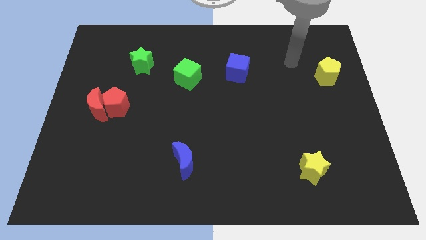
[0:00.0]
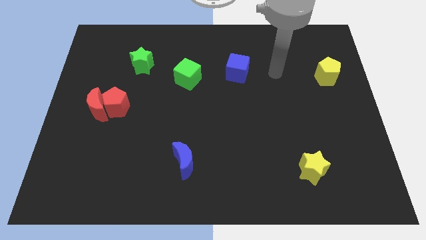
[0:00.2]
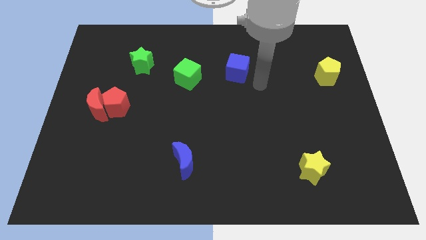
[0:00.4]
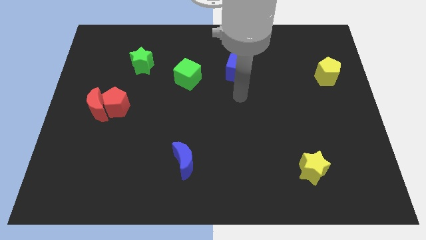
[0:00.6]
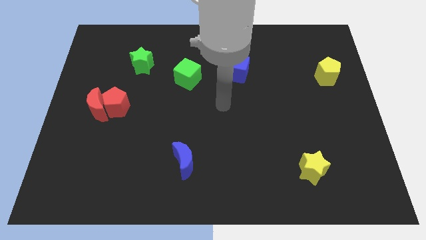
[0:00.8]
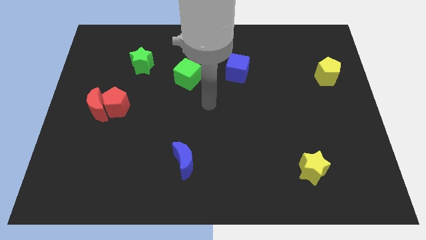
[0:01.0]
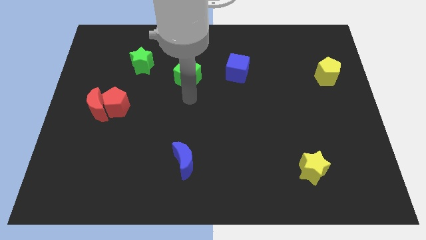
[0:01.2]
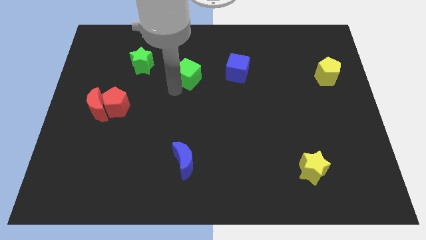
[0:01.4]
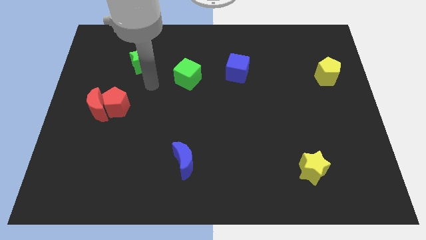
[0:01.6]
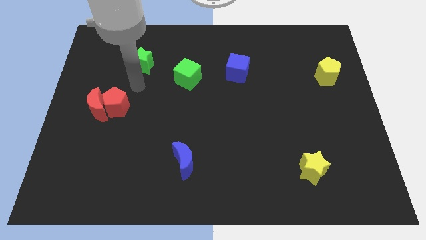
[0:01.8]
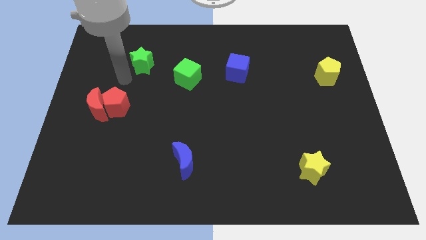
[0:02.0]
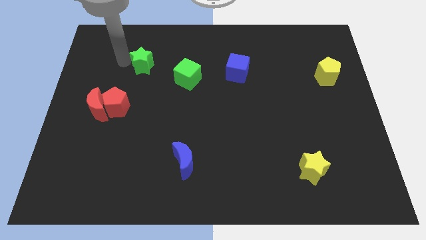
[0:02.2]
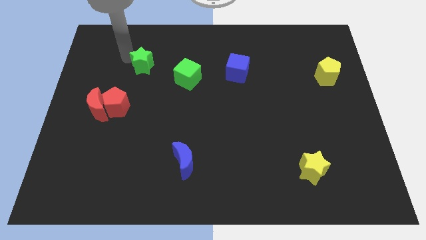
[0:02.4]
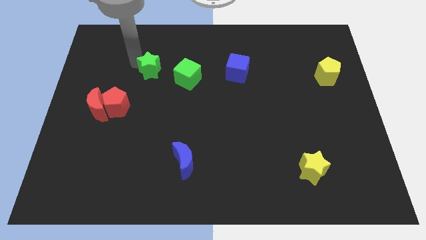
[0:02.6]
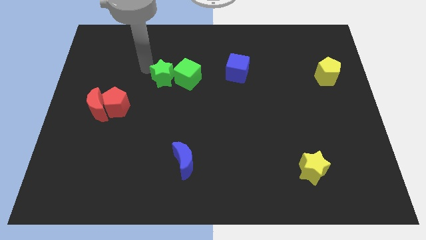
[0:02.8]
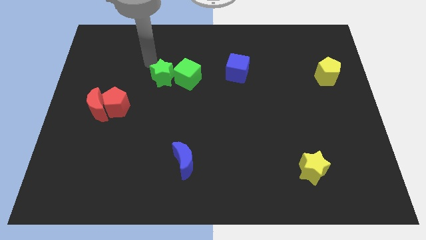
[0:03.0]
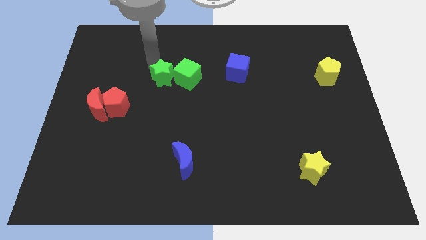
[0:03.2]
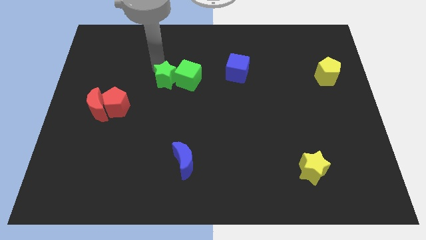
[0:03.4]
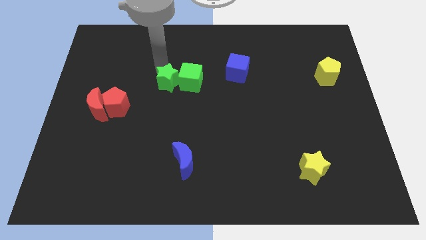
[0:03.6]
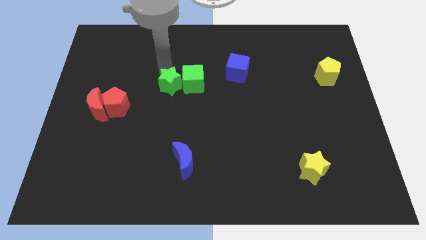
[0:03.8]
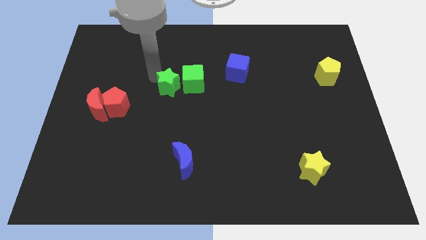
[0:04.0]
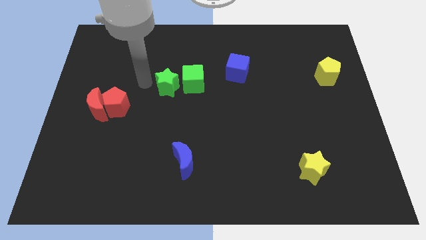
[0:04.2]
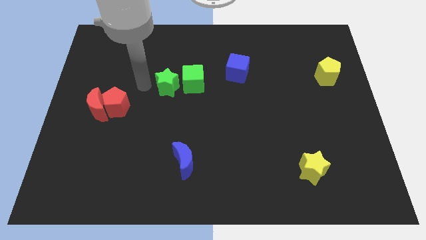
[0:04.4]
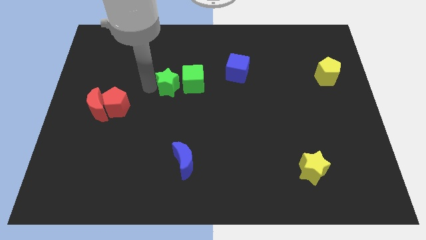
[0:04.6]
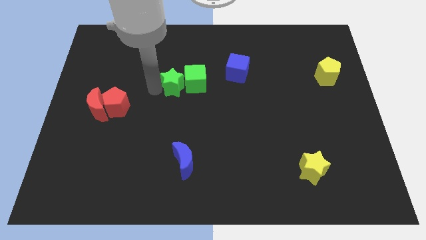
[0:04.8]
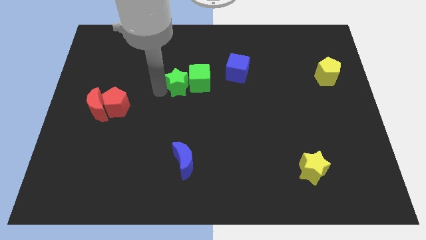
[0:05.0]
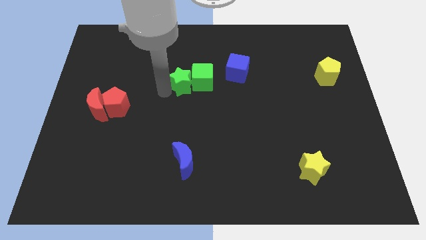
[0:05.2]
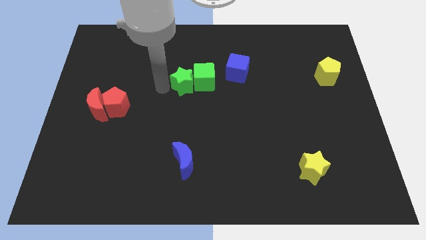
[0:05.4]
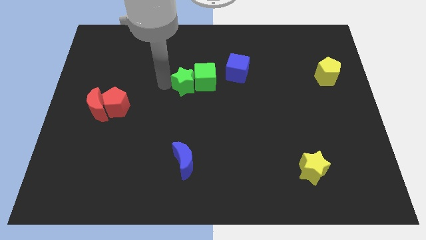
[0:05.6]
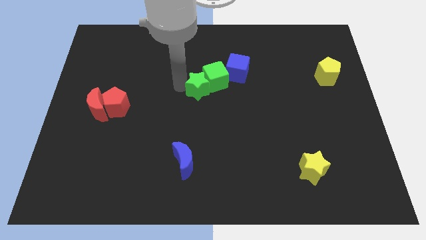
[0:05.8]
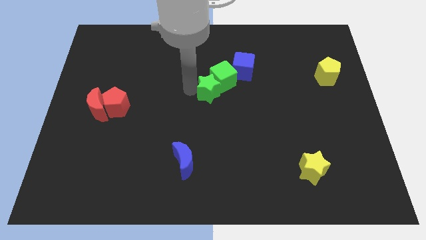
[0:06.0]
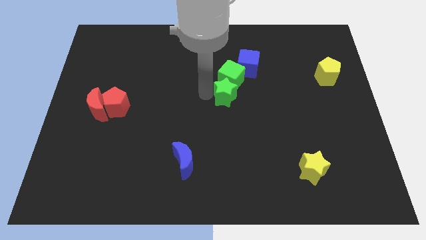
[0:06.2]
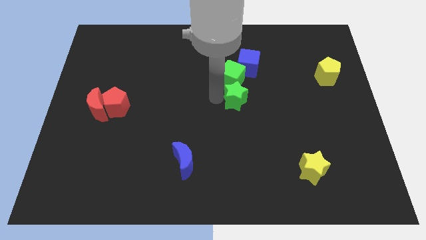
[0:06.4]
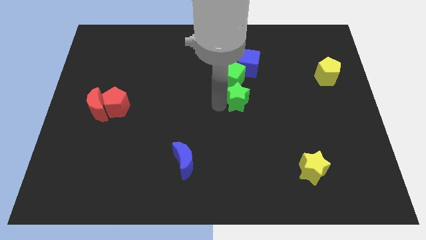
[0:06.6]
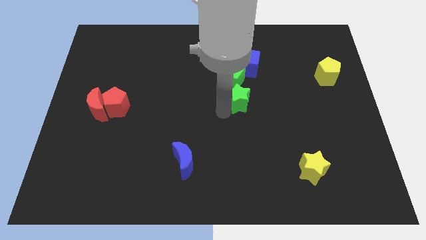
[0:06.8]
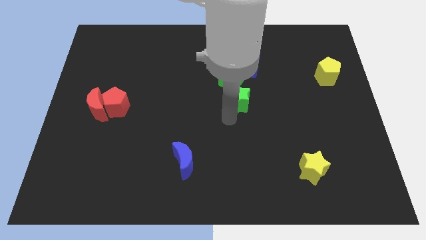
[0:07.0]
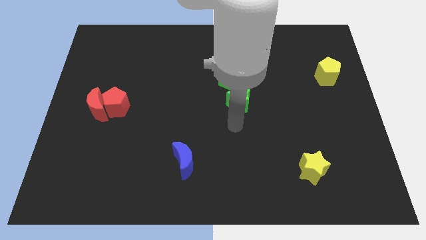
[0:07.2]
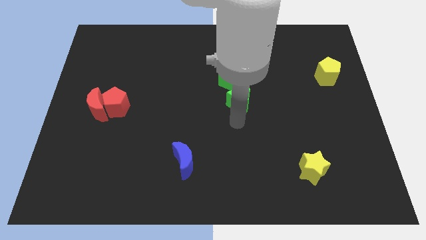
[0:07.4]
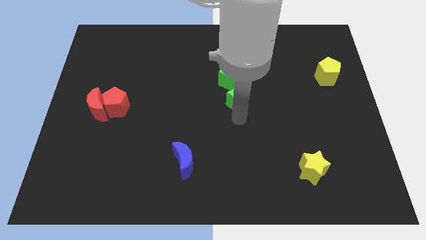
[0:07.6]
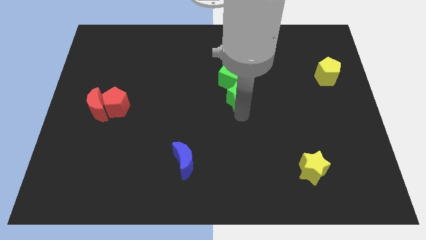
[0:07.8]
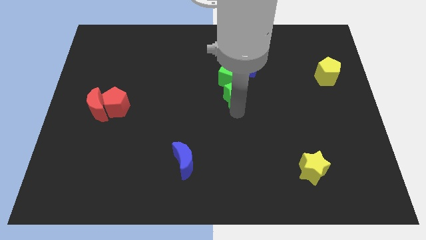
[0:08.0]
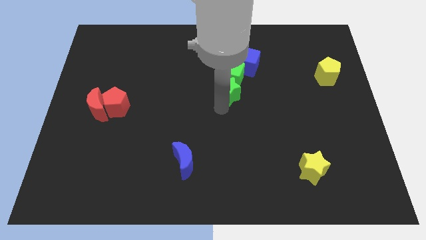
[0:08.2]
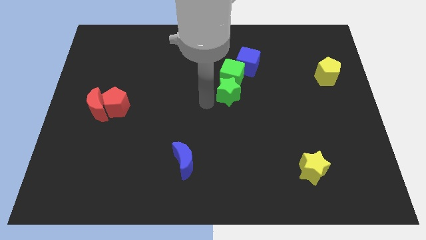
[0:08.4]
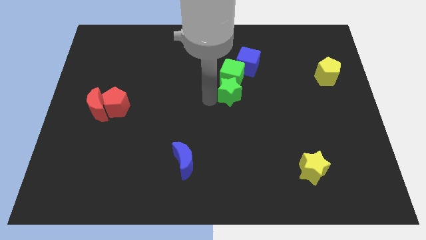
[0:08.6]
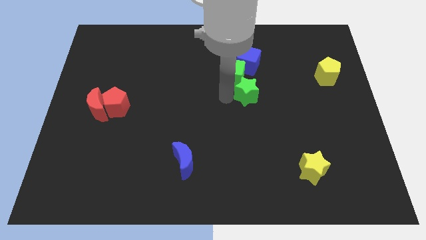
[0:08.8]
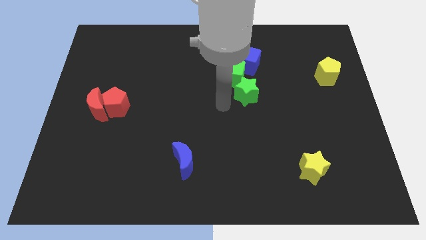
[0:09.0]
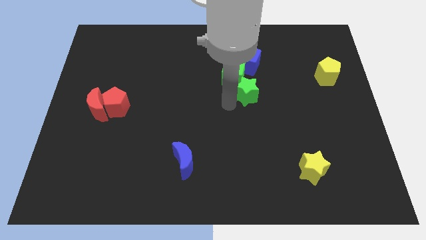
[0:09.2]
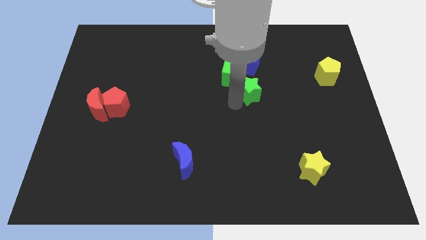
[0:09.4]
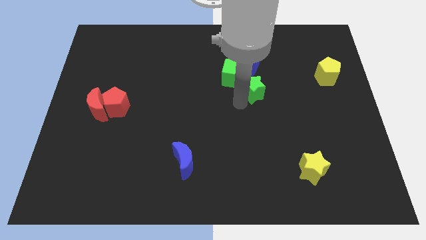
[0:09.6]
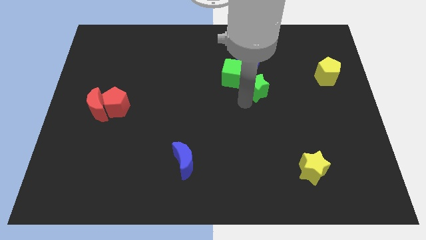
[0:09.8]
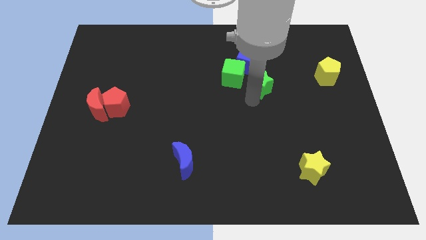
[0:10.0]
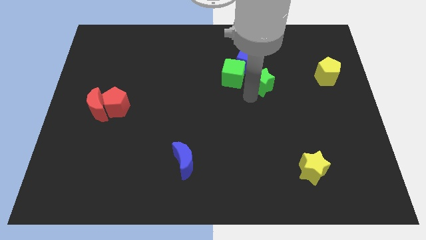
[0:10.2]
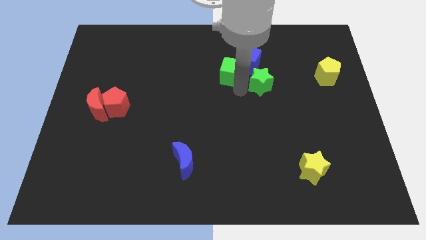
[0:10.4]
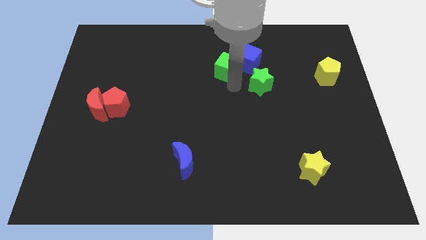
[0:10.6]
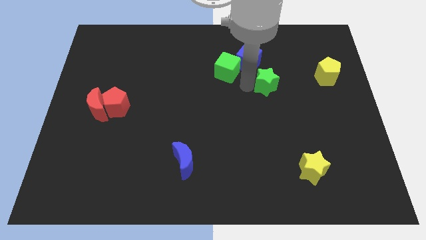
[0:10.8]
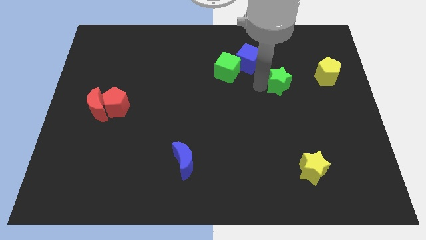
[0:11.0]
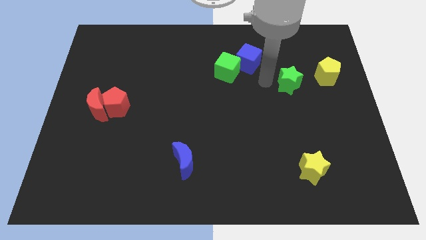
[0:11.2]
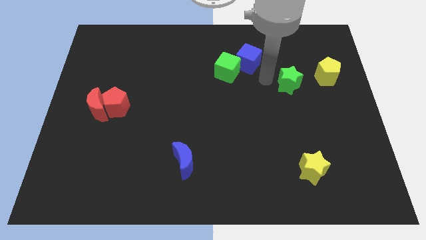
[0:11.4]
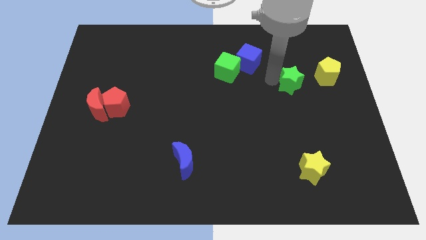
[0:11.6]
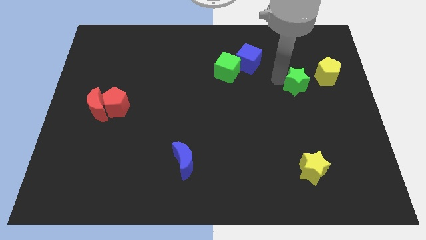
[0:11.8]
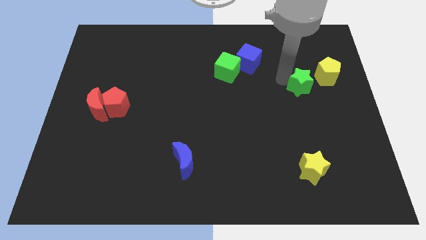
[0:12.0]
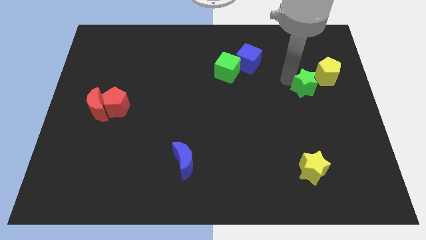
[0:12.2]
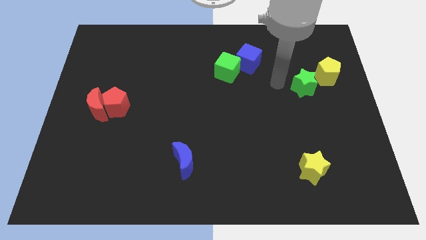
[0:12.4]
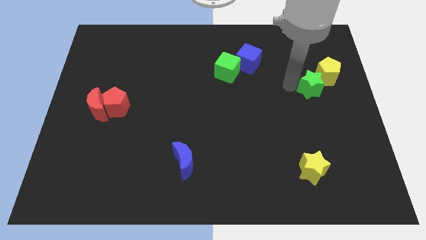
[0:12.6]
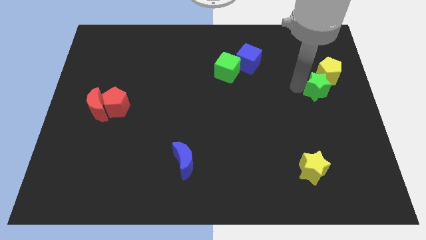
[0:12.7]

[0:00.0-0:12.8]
put the green star to the right side

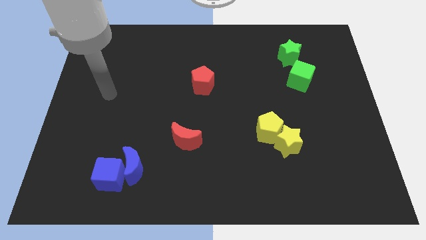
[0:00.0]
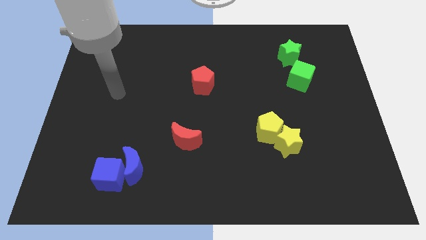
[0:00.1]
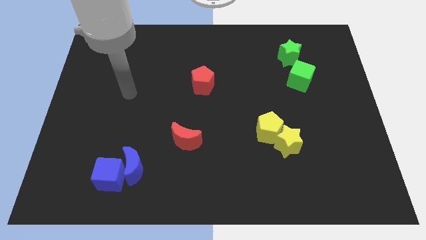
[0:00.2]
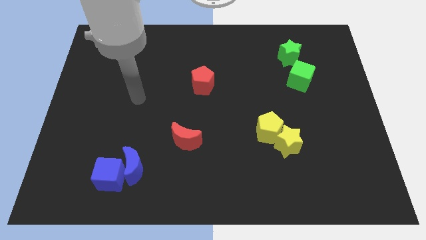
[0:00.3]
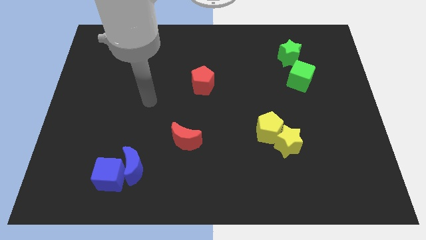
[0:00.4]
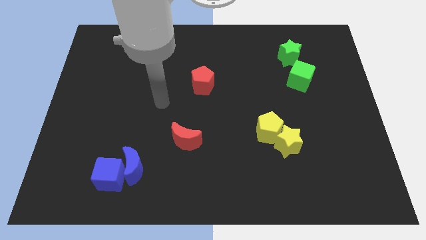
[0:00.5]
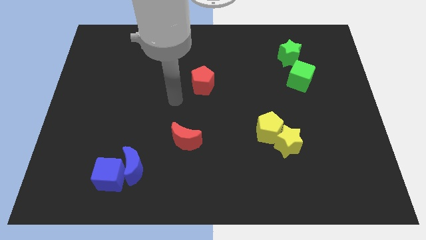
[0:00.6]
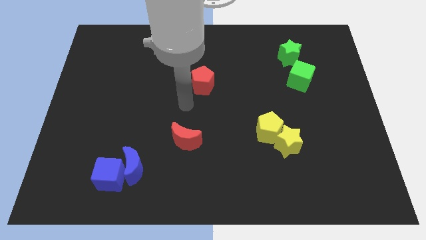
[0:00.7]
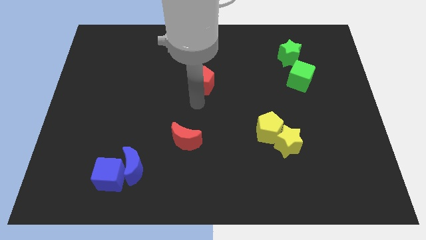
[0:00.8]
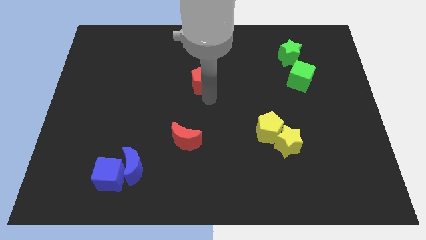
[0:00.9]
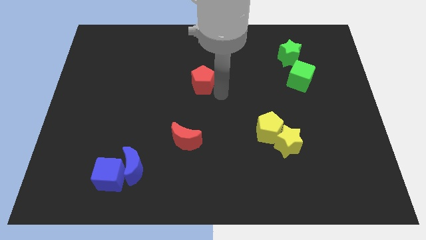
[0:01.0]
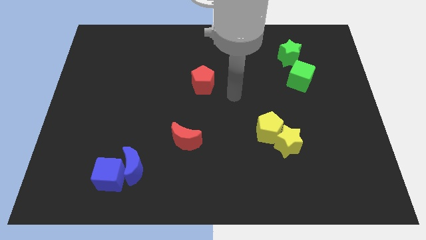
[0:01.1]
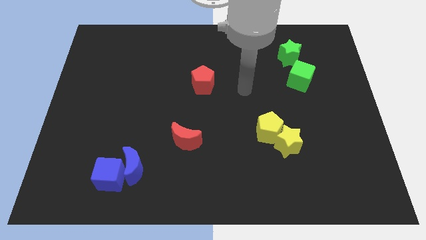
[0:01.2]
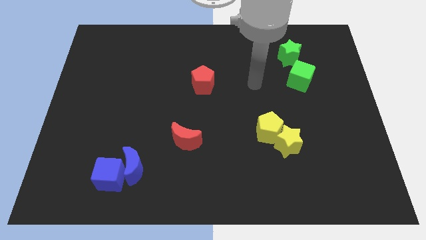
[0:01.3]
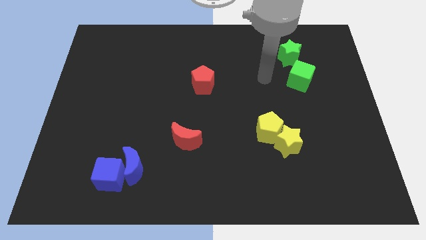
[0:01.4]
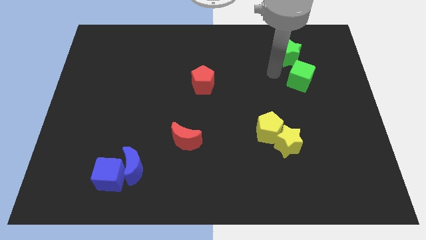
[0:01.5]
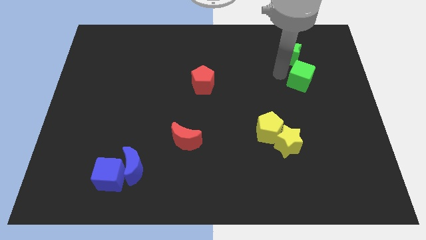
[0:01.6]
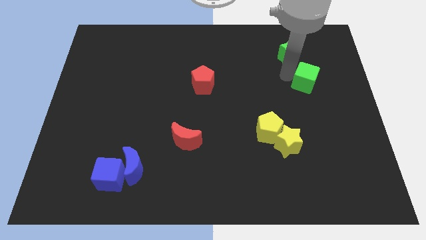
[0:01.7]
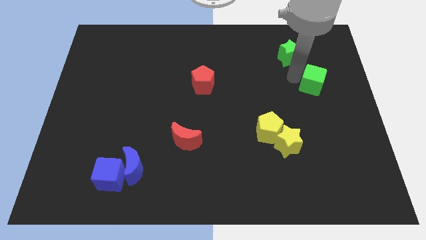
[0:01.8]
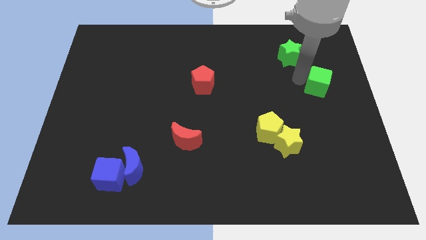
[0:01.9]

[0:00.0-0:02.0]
slide the green cube to the center right
